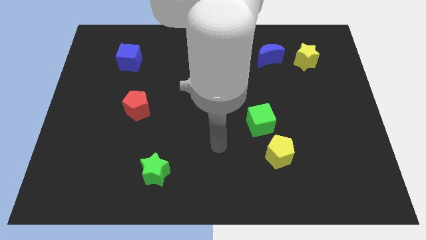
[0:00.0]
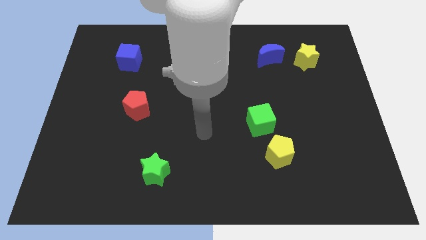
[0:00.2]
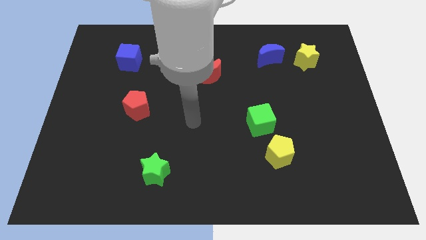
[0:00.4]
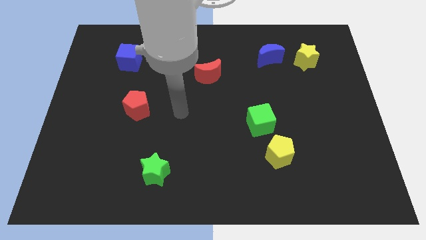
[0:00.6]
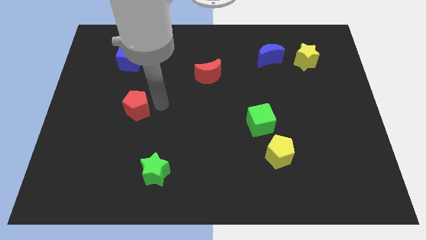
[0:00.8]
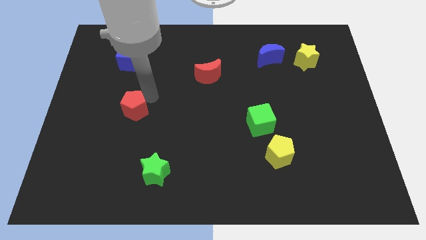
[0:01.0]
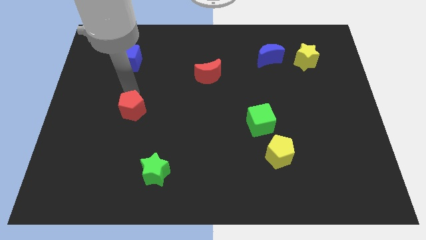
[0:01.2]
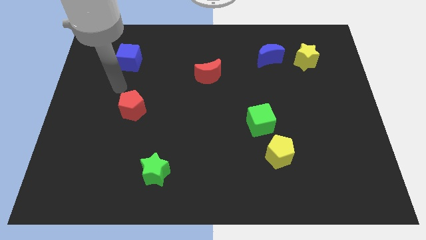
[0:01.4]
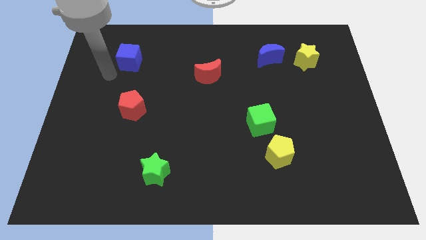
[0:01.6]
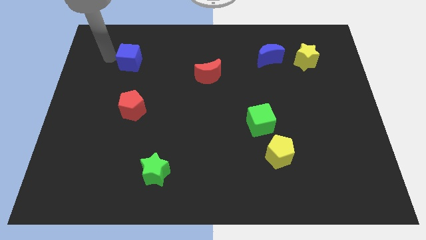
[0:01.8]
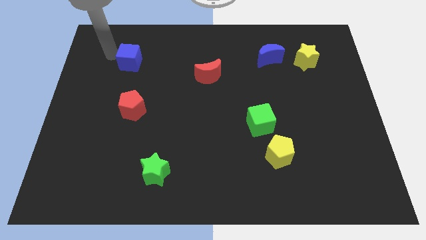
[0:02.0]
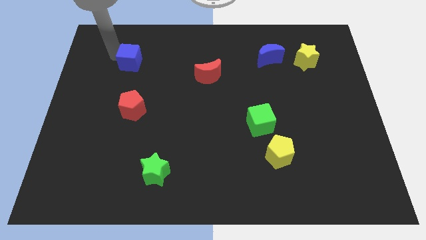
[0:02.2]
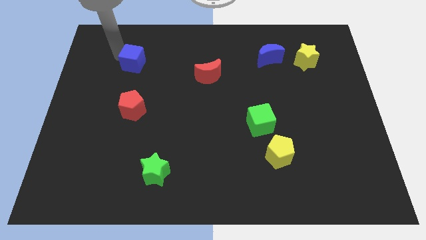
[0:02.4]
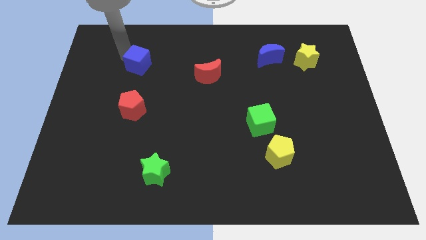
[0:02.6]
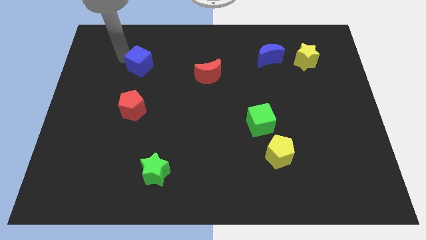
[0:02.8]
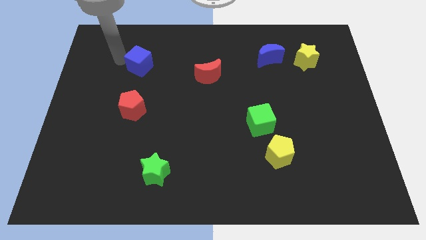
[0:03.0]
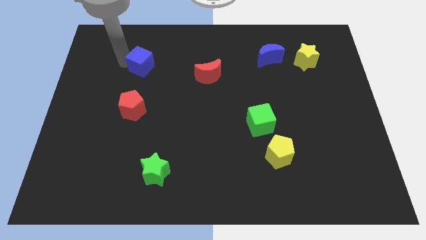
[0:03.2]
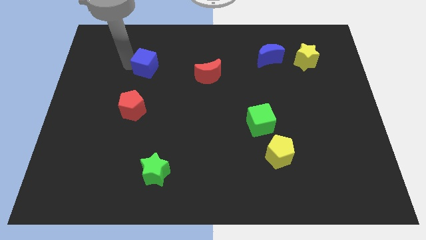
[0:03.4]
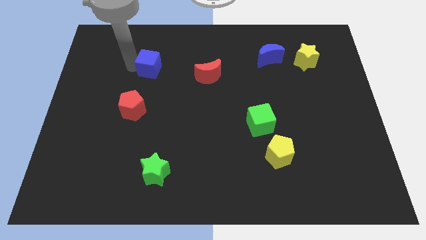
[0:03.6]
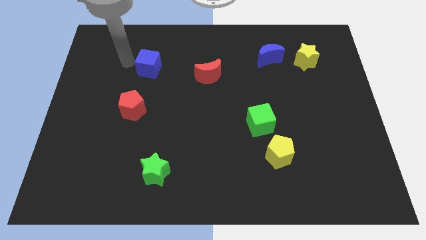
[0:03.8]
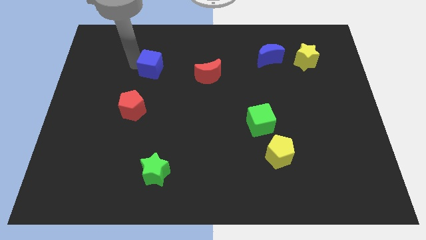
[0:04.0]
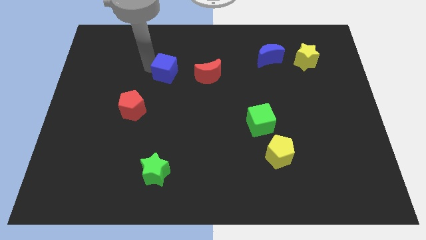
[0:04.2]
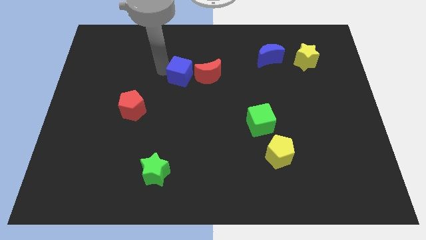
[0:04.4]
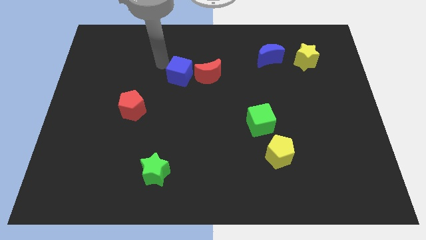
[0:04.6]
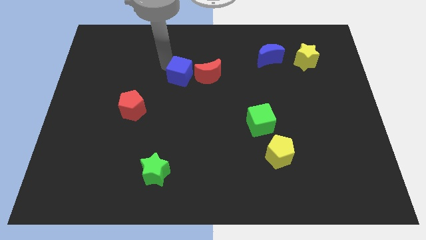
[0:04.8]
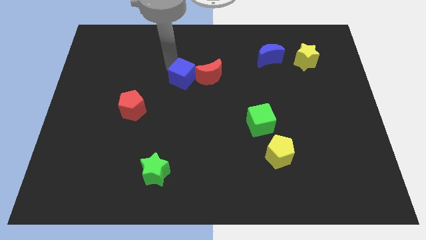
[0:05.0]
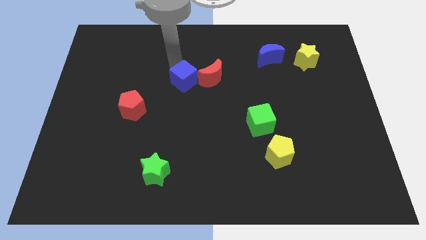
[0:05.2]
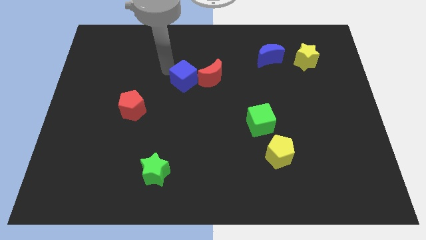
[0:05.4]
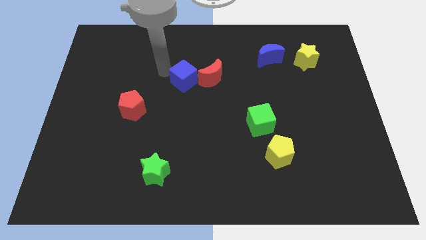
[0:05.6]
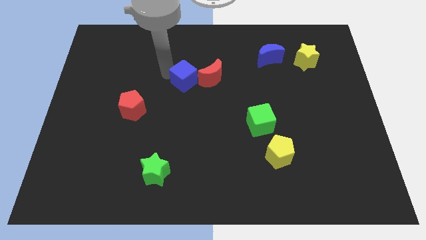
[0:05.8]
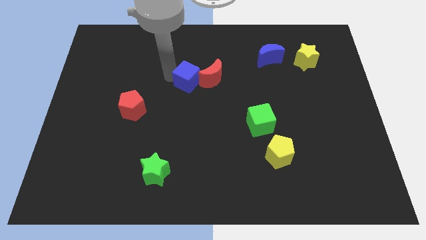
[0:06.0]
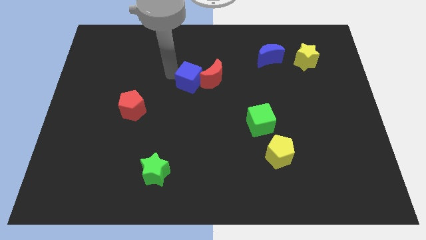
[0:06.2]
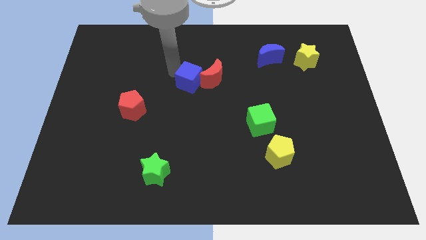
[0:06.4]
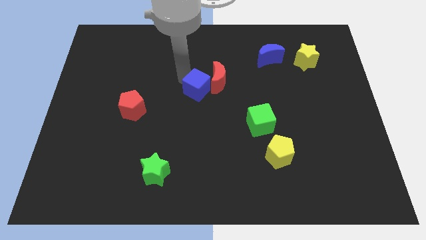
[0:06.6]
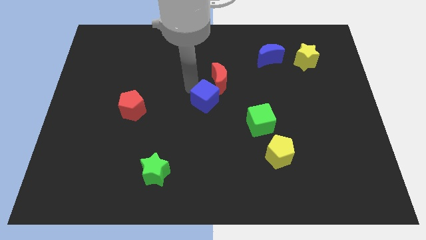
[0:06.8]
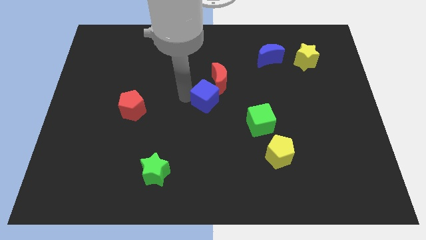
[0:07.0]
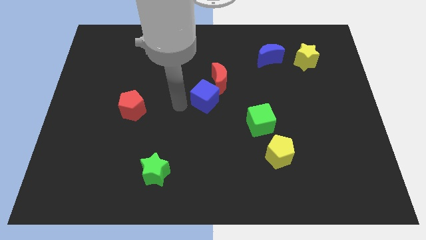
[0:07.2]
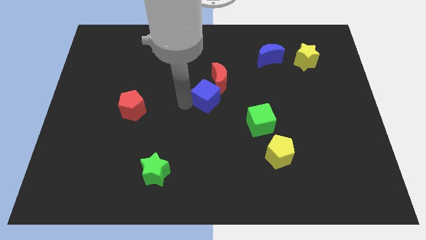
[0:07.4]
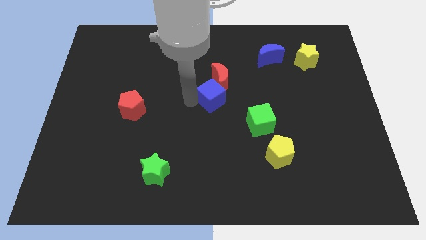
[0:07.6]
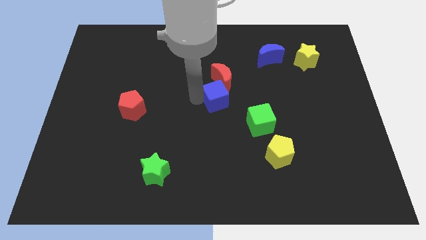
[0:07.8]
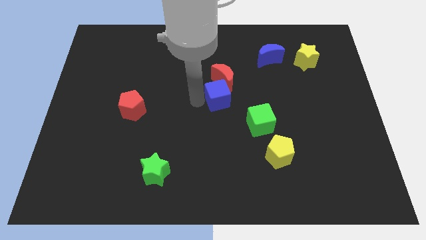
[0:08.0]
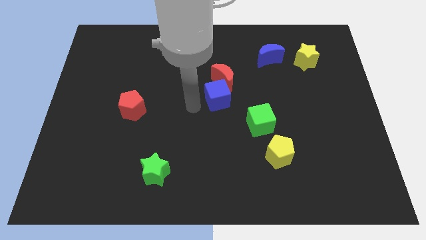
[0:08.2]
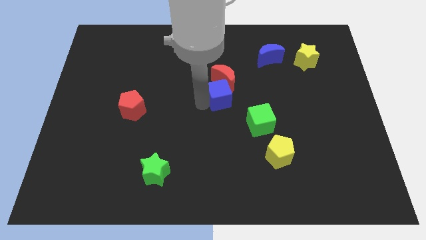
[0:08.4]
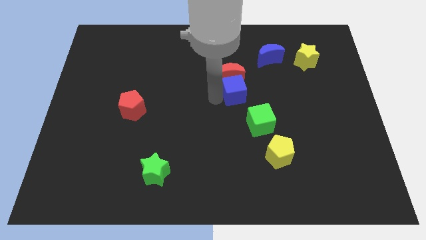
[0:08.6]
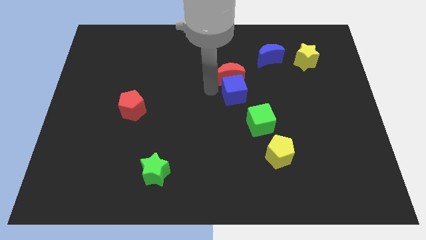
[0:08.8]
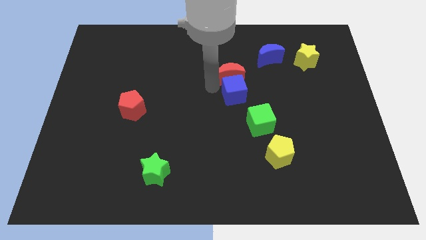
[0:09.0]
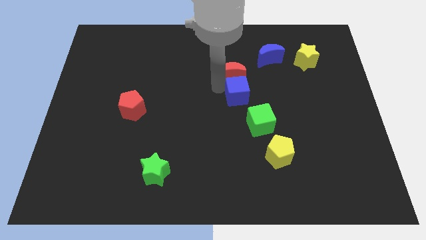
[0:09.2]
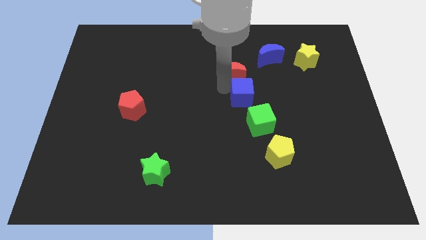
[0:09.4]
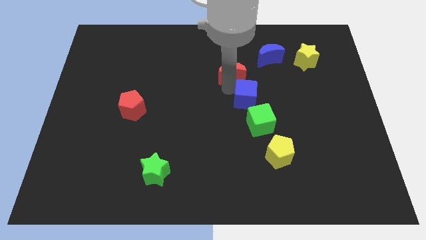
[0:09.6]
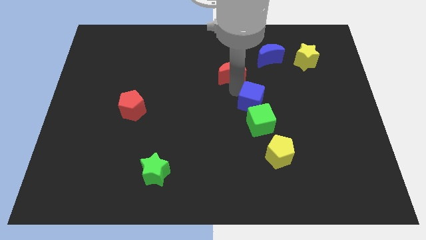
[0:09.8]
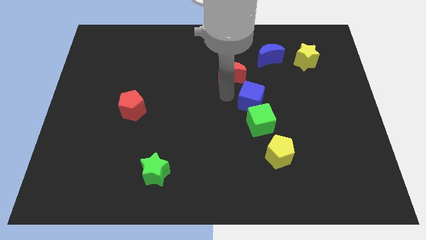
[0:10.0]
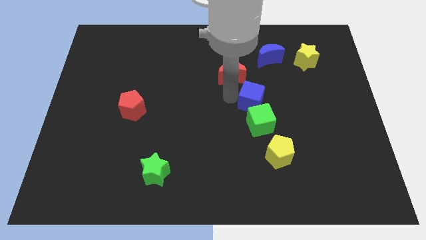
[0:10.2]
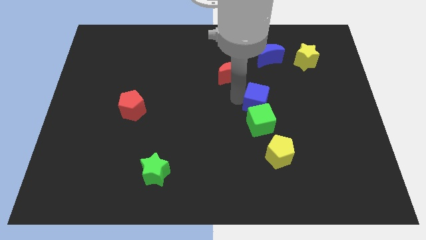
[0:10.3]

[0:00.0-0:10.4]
move the blue cube diagonally up and to the right of the green cube

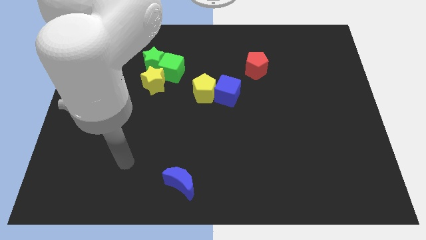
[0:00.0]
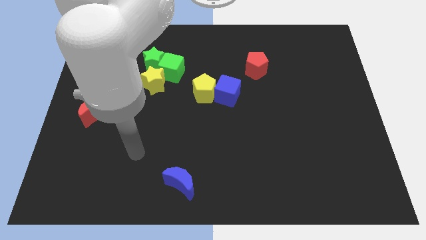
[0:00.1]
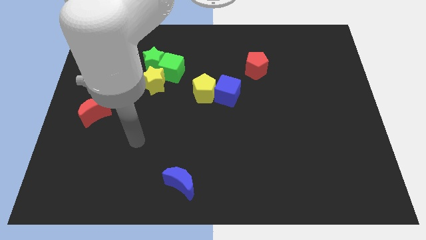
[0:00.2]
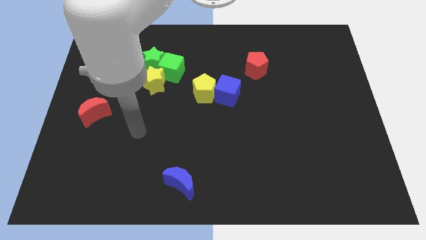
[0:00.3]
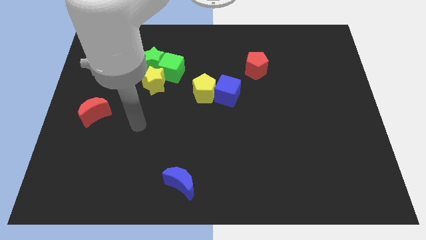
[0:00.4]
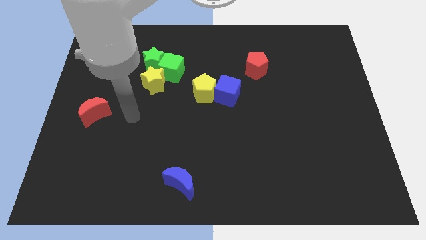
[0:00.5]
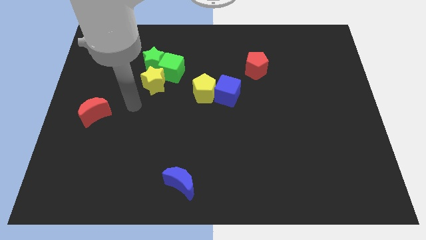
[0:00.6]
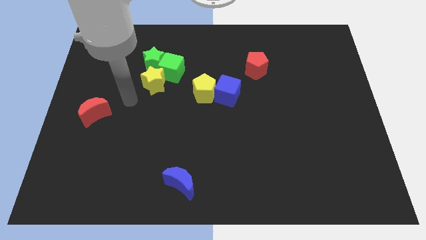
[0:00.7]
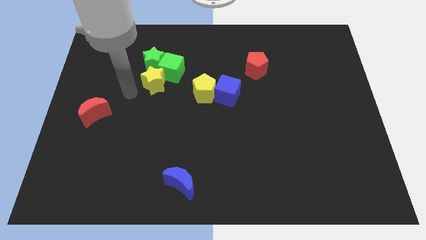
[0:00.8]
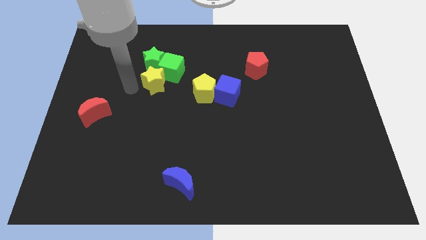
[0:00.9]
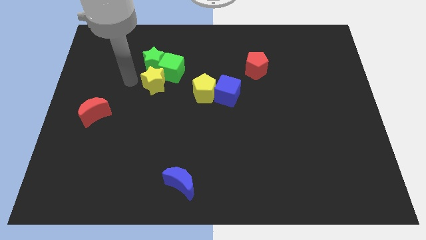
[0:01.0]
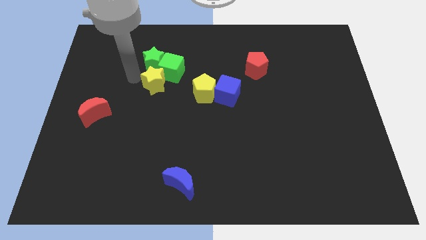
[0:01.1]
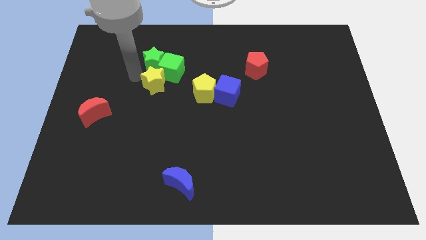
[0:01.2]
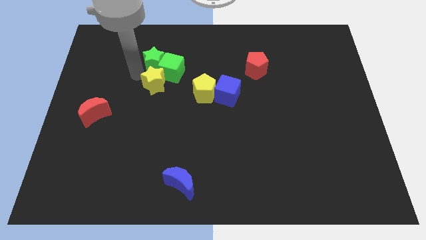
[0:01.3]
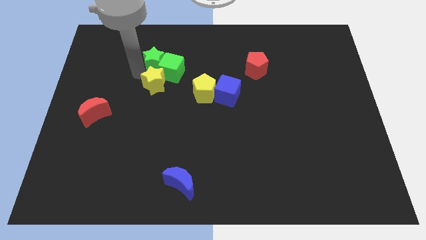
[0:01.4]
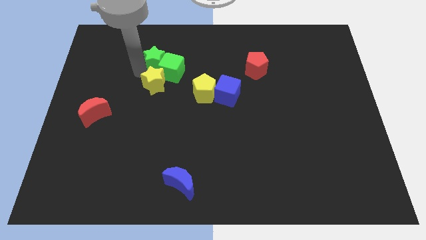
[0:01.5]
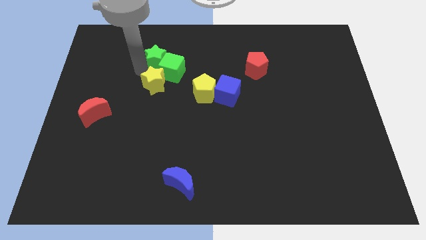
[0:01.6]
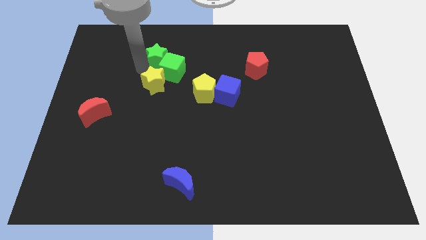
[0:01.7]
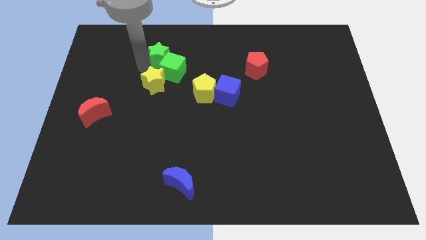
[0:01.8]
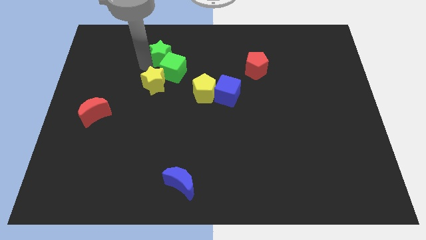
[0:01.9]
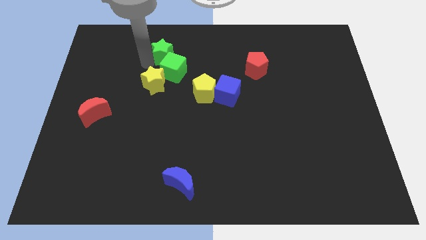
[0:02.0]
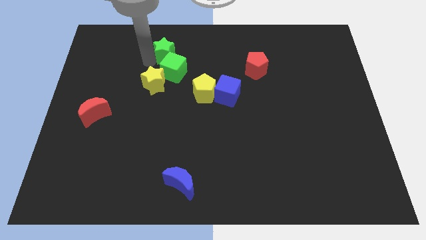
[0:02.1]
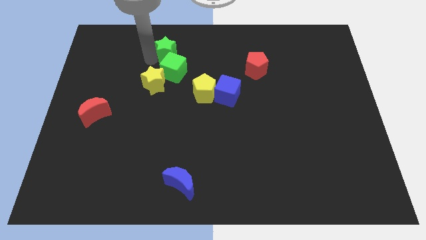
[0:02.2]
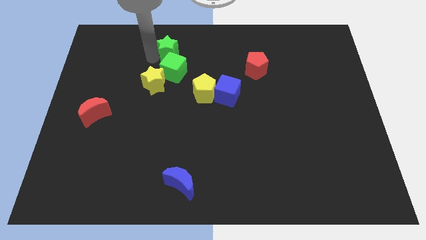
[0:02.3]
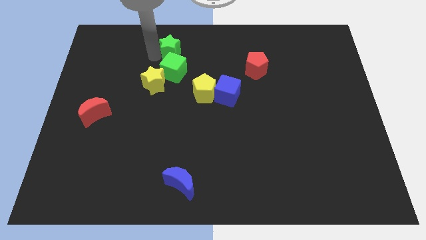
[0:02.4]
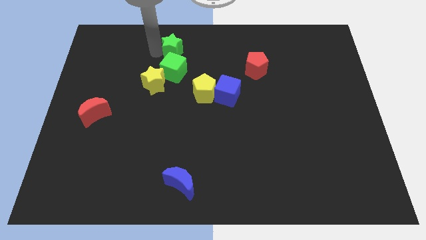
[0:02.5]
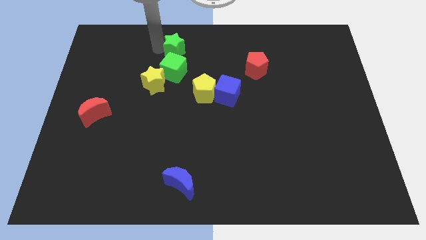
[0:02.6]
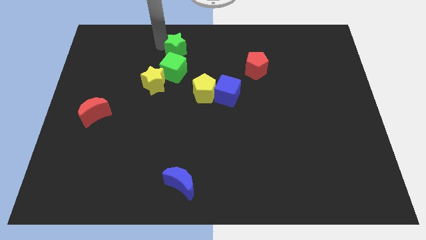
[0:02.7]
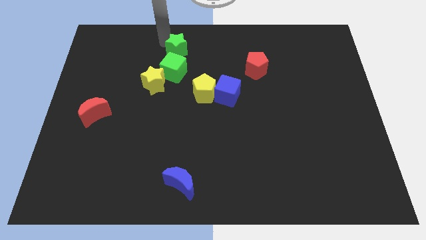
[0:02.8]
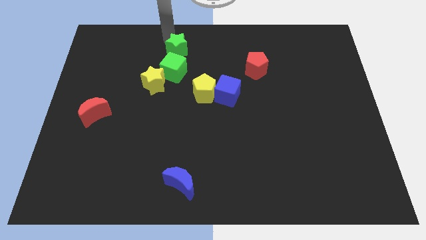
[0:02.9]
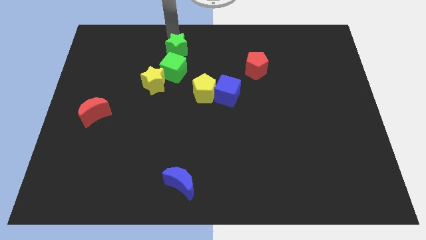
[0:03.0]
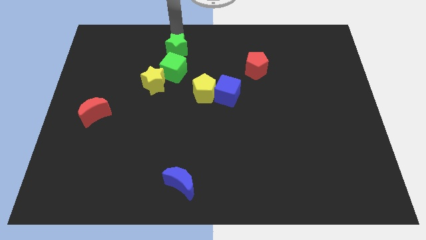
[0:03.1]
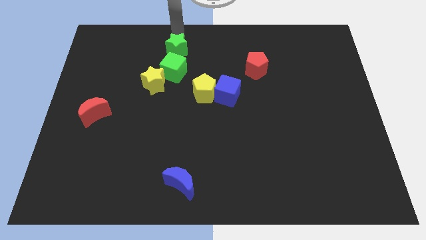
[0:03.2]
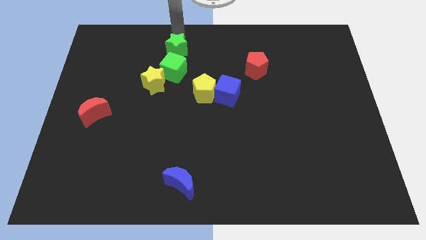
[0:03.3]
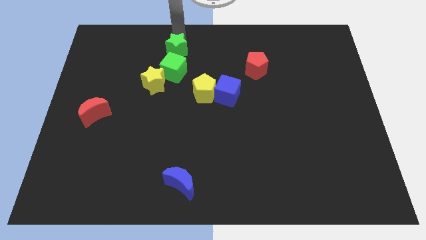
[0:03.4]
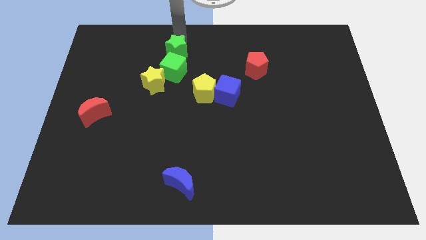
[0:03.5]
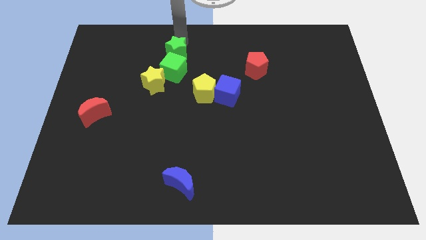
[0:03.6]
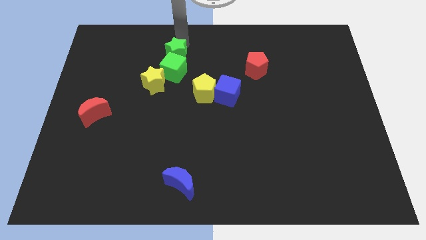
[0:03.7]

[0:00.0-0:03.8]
move the green star diagonally up and to the right of the yellow star
